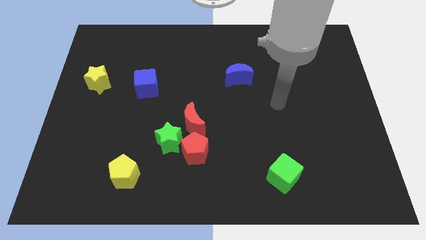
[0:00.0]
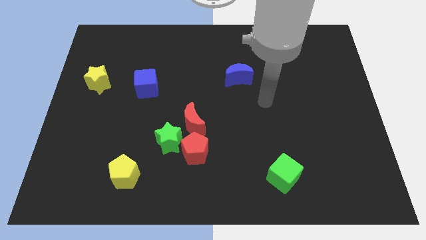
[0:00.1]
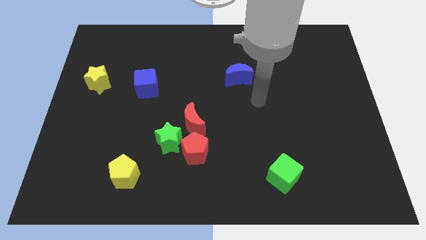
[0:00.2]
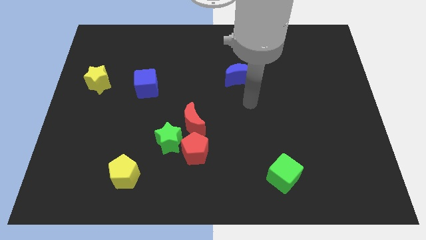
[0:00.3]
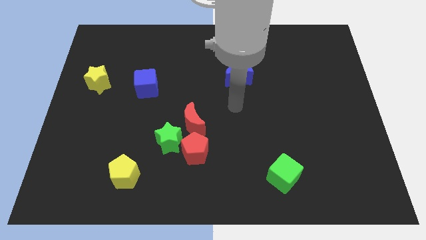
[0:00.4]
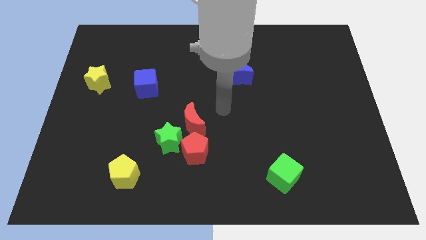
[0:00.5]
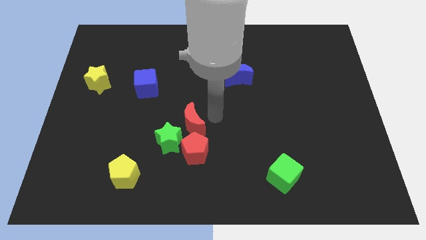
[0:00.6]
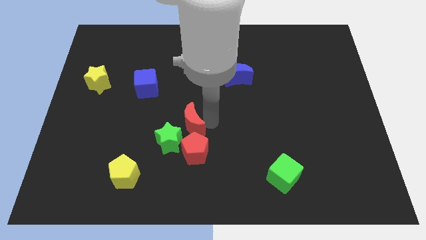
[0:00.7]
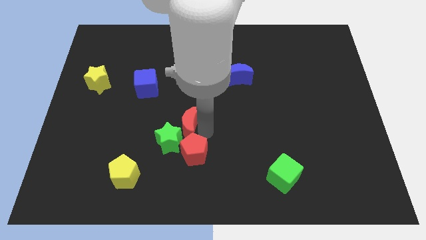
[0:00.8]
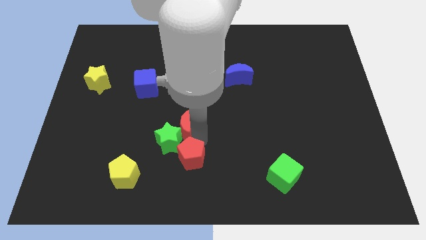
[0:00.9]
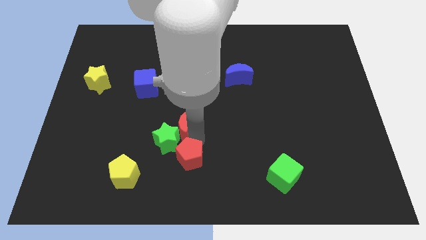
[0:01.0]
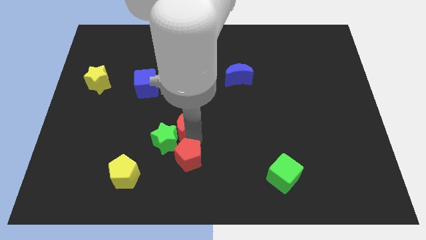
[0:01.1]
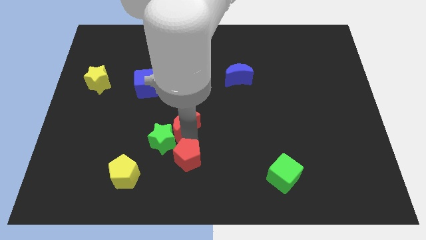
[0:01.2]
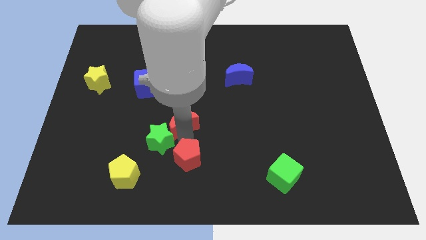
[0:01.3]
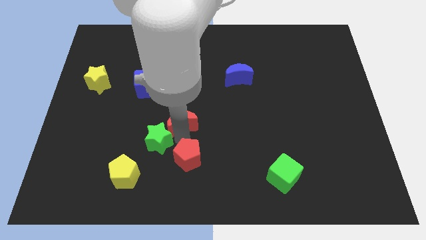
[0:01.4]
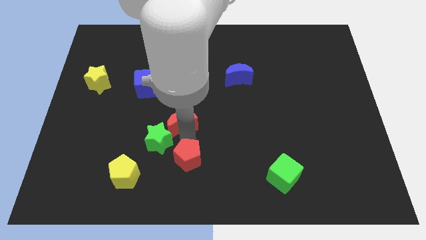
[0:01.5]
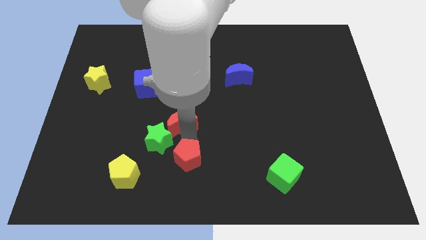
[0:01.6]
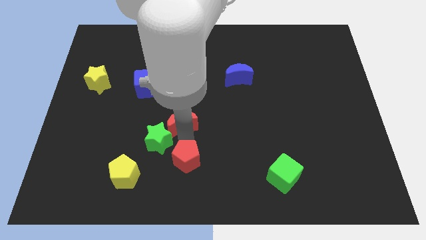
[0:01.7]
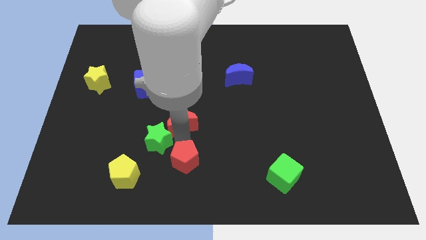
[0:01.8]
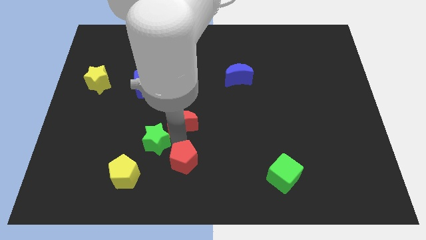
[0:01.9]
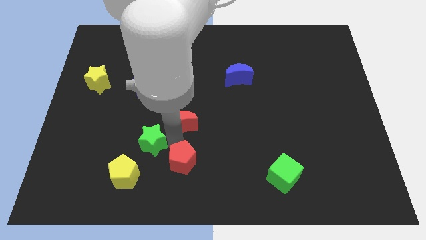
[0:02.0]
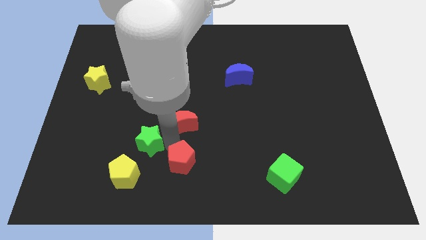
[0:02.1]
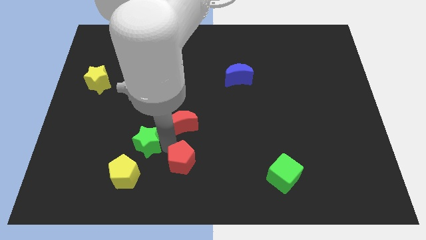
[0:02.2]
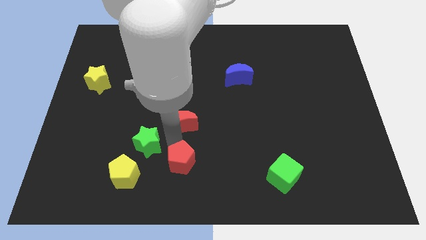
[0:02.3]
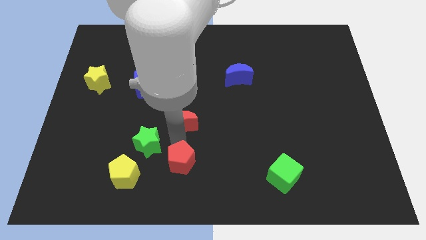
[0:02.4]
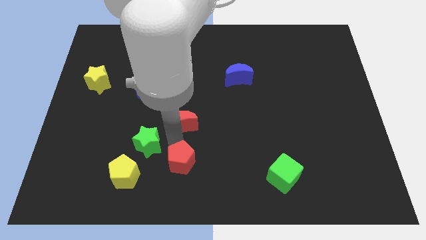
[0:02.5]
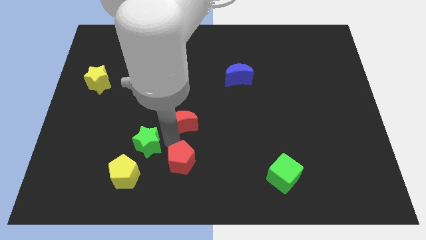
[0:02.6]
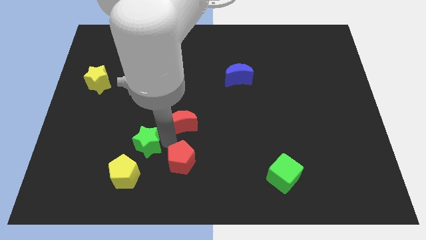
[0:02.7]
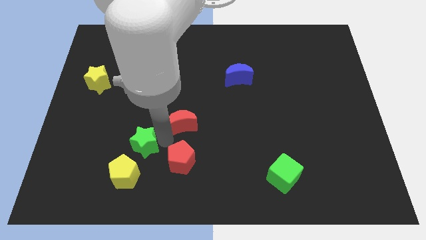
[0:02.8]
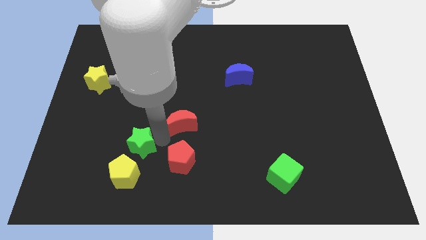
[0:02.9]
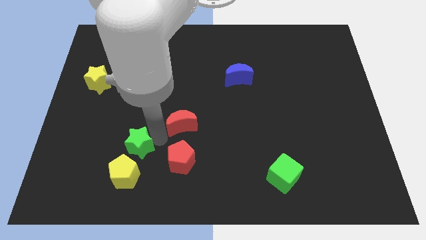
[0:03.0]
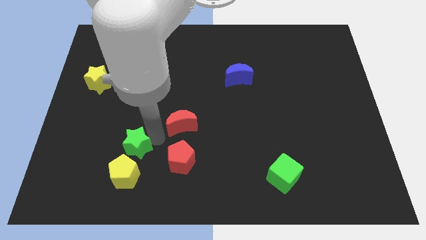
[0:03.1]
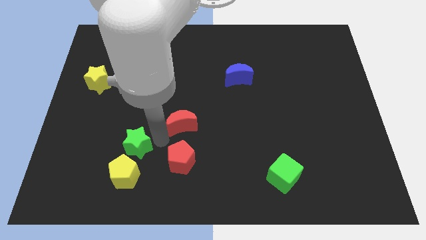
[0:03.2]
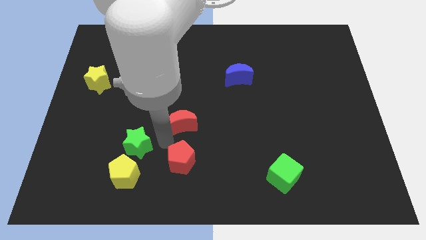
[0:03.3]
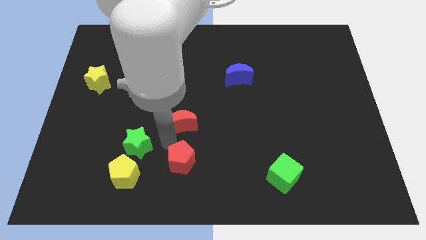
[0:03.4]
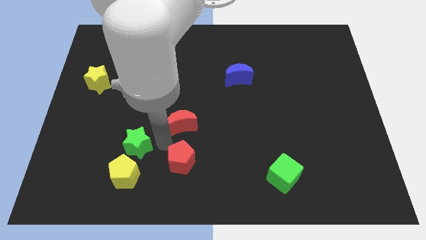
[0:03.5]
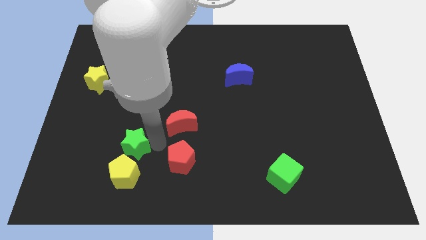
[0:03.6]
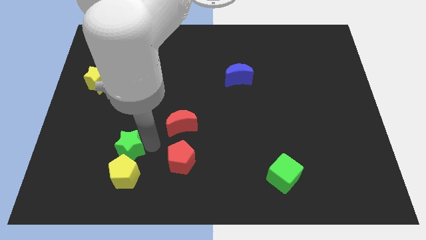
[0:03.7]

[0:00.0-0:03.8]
move the green star away from the red pentagon and red moon

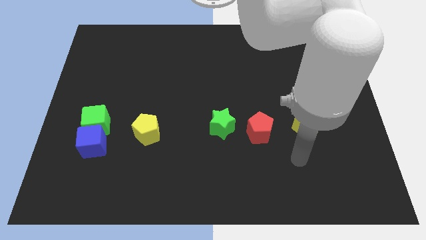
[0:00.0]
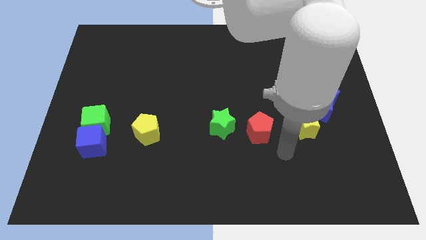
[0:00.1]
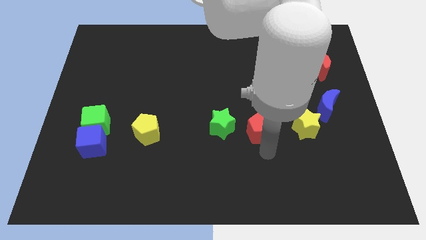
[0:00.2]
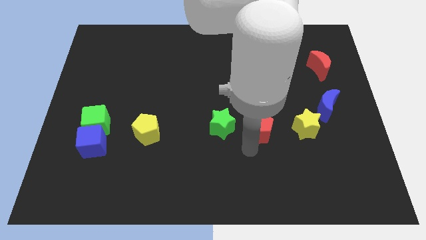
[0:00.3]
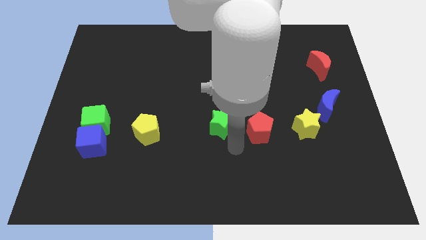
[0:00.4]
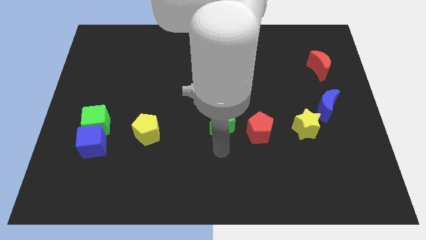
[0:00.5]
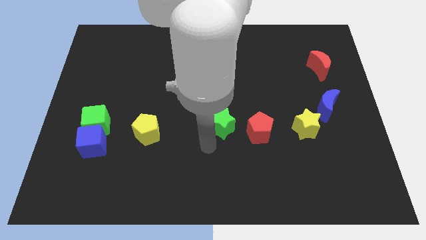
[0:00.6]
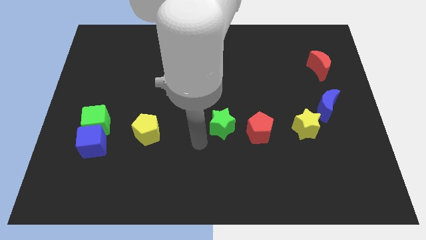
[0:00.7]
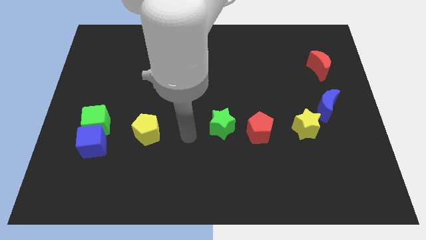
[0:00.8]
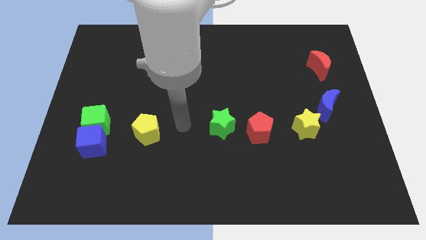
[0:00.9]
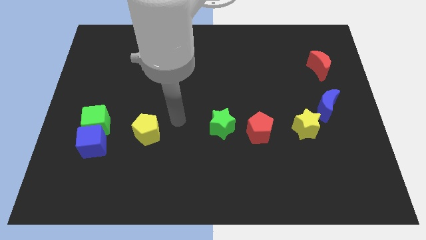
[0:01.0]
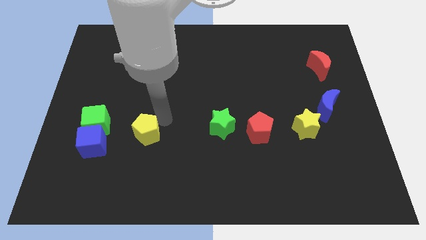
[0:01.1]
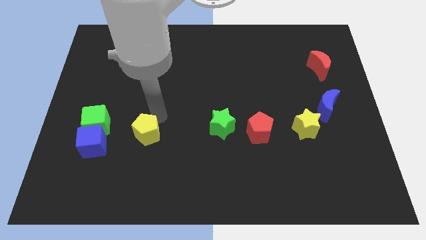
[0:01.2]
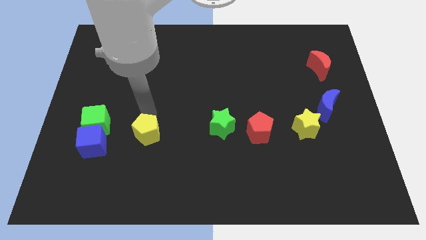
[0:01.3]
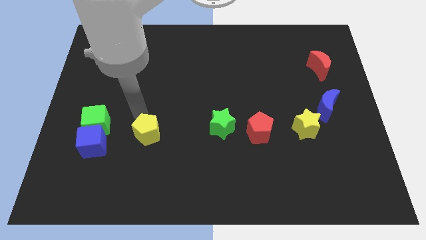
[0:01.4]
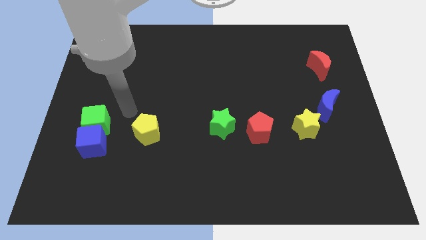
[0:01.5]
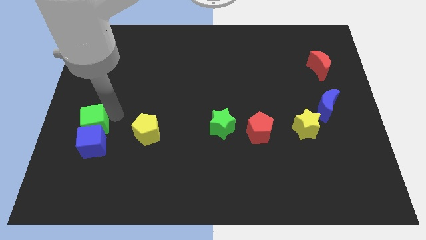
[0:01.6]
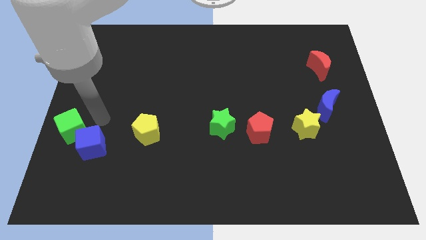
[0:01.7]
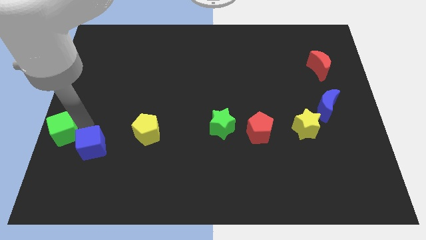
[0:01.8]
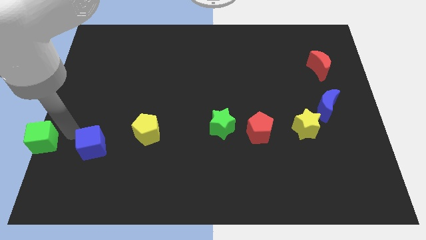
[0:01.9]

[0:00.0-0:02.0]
move the blue cube away from the green cube

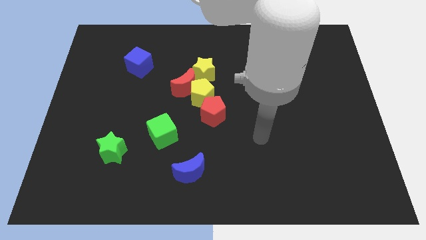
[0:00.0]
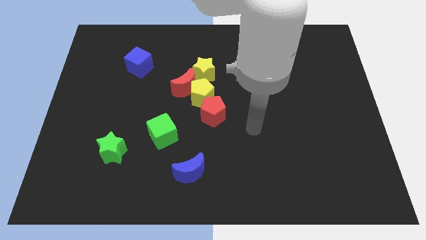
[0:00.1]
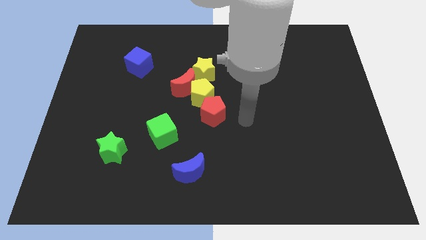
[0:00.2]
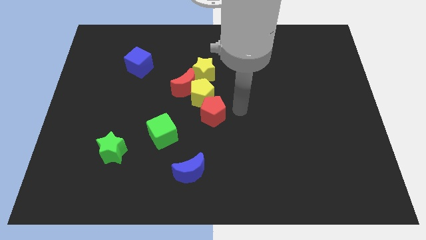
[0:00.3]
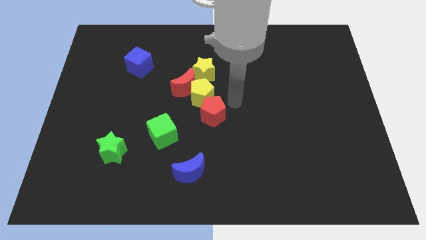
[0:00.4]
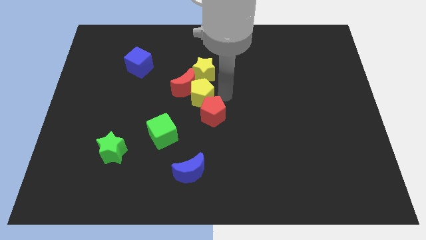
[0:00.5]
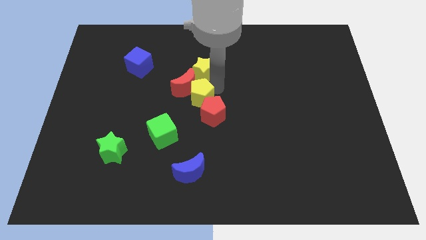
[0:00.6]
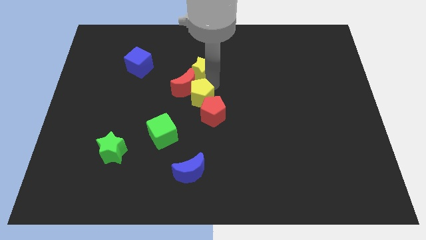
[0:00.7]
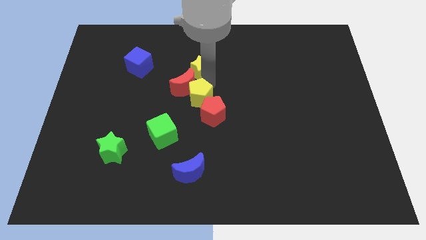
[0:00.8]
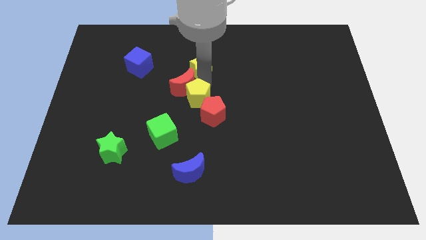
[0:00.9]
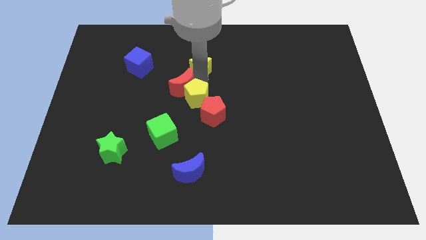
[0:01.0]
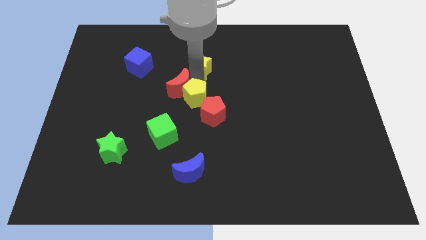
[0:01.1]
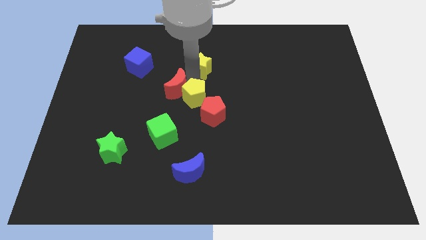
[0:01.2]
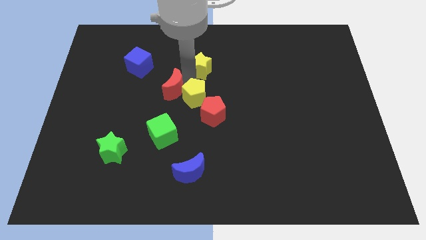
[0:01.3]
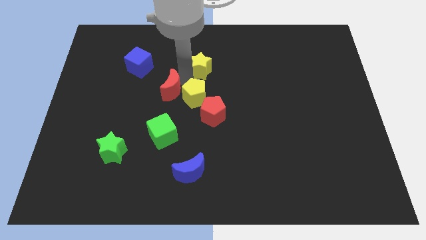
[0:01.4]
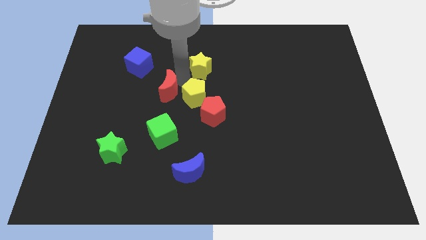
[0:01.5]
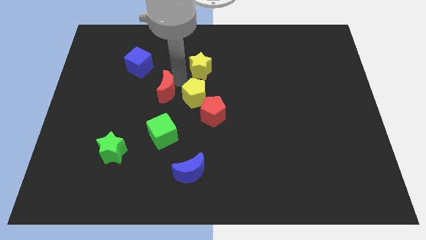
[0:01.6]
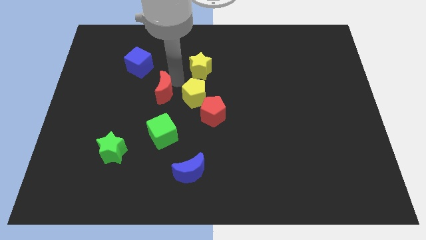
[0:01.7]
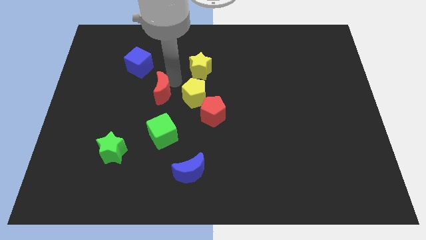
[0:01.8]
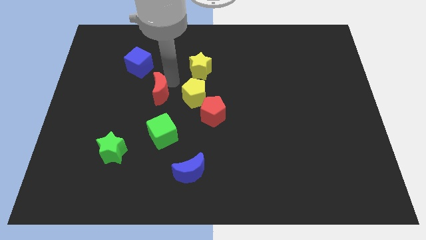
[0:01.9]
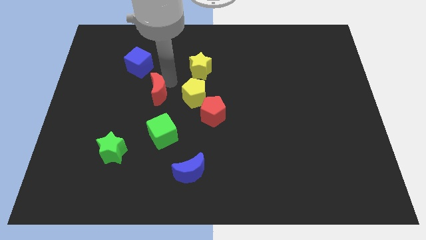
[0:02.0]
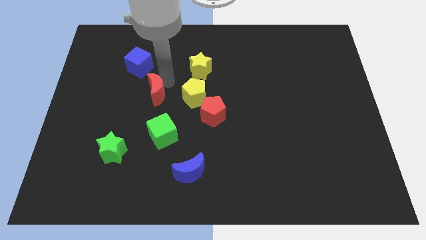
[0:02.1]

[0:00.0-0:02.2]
move the red moon away from the yellow pentagon and yellow star

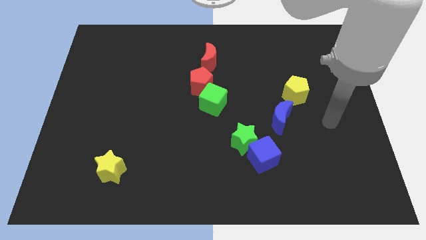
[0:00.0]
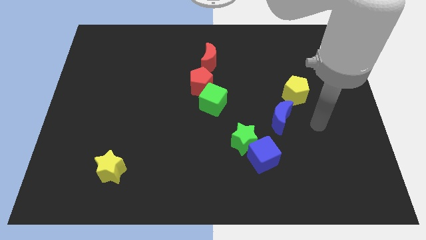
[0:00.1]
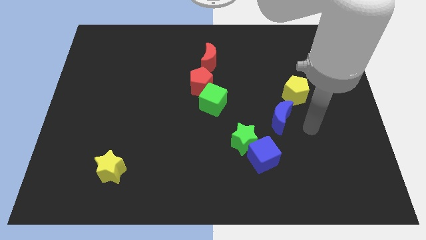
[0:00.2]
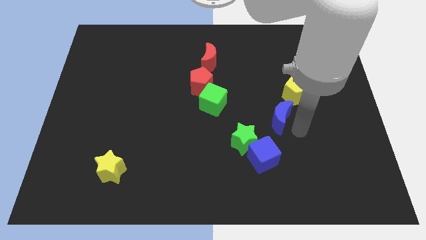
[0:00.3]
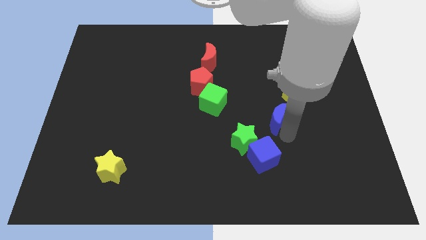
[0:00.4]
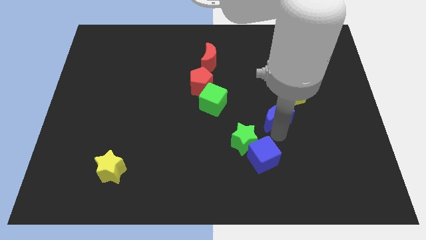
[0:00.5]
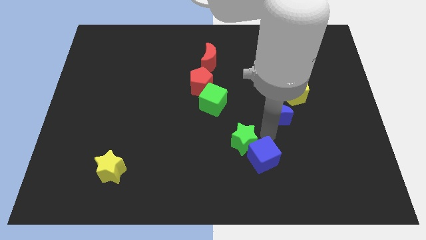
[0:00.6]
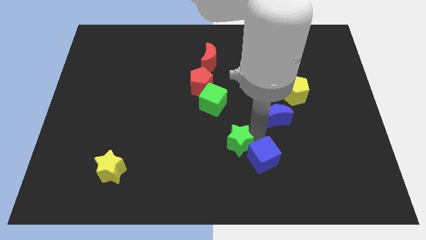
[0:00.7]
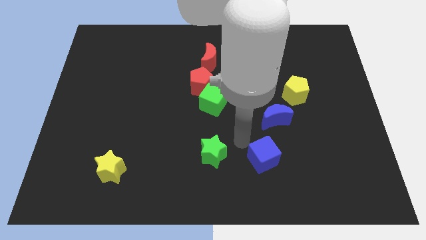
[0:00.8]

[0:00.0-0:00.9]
pull the blue cube apart from the green star

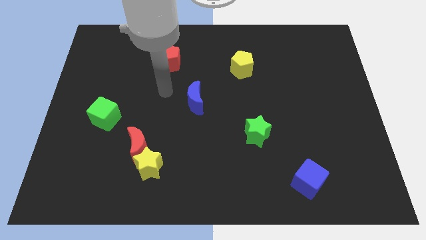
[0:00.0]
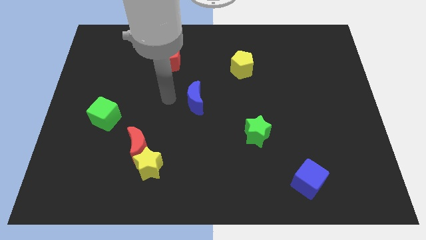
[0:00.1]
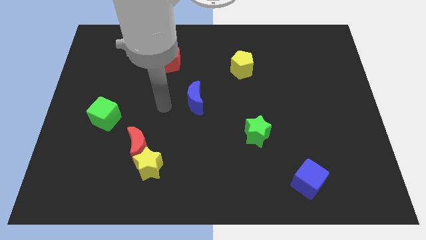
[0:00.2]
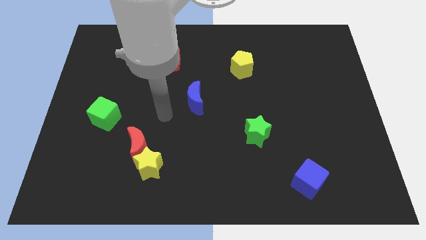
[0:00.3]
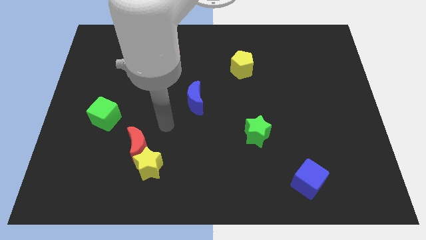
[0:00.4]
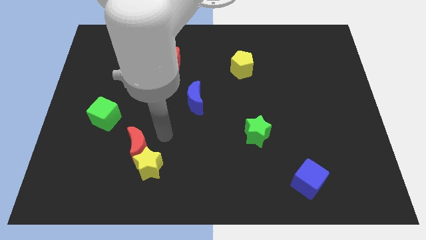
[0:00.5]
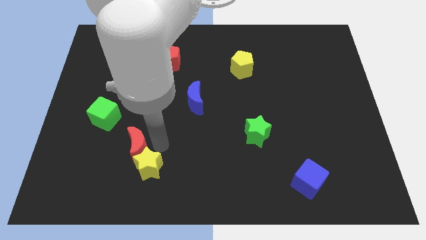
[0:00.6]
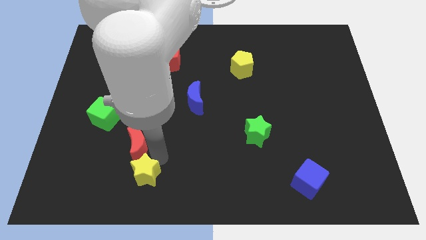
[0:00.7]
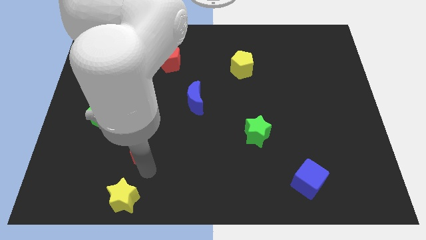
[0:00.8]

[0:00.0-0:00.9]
pull the red moon apart from the yellow star
